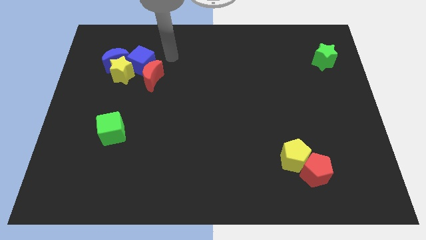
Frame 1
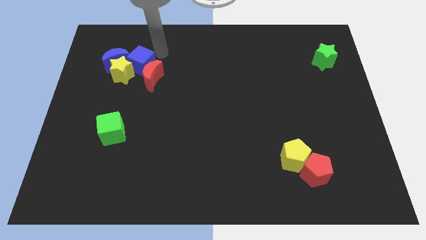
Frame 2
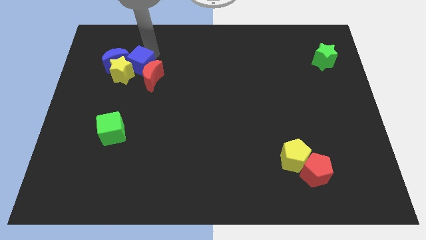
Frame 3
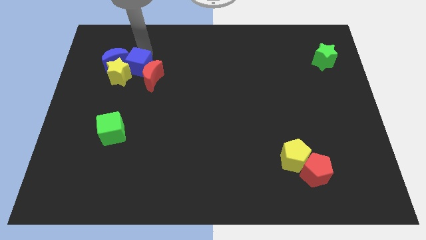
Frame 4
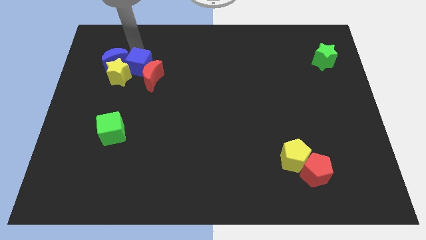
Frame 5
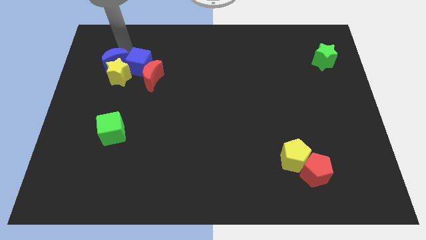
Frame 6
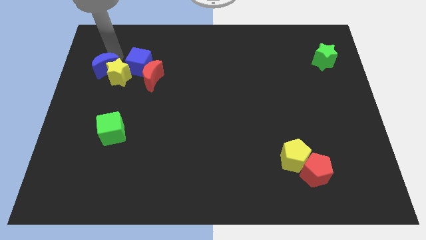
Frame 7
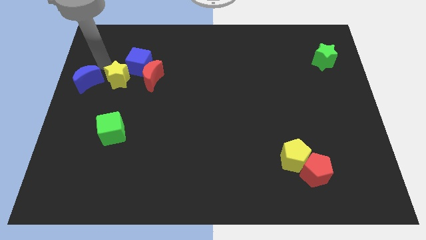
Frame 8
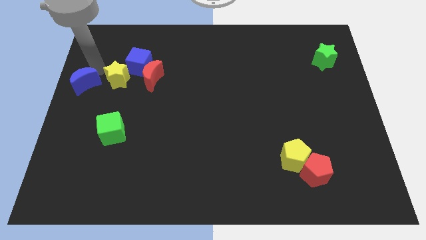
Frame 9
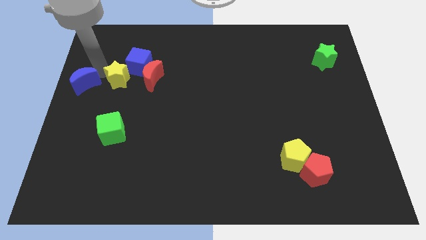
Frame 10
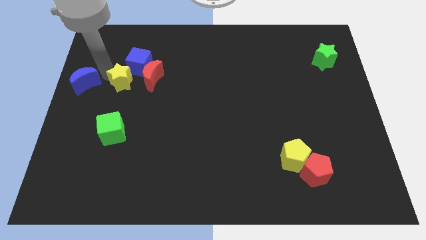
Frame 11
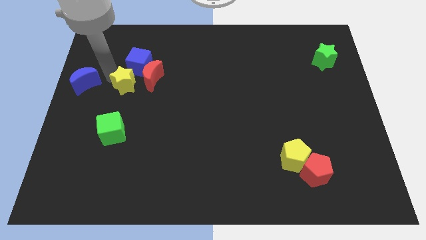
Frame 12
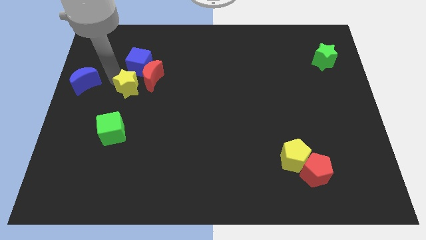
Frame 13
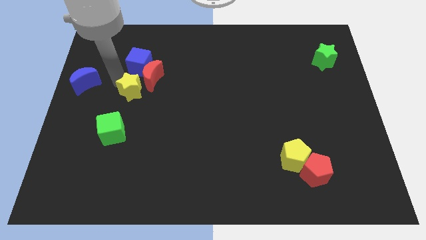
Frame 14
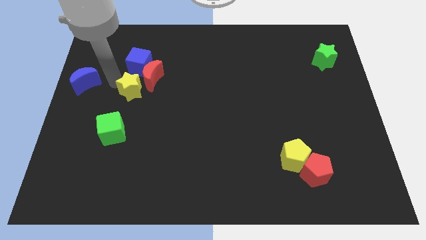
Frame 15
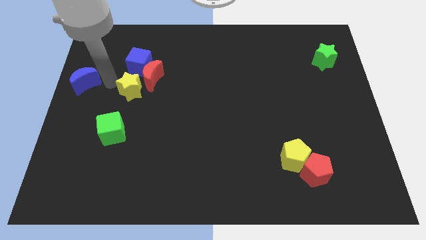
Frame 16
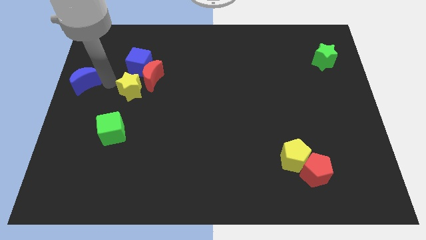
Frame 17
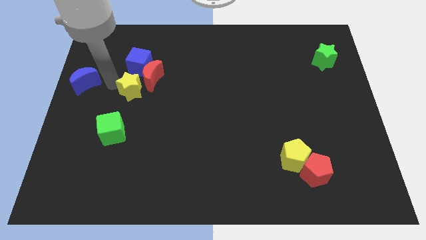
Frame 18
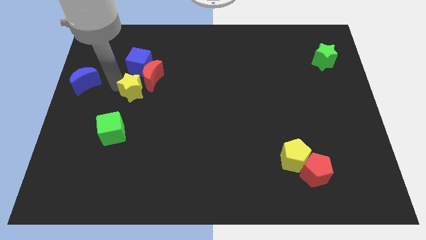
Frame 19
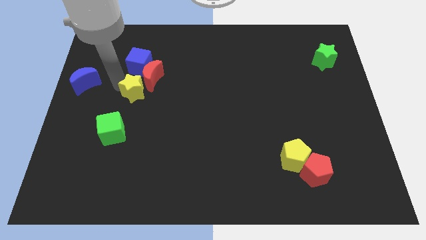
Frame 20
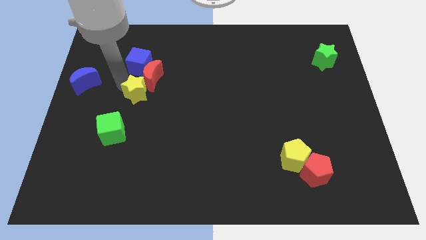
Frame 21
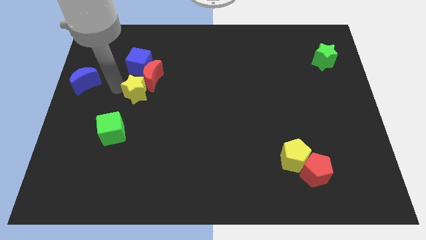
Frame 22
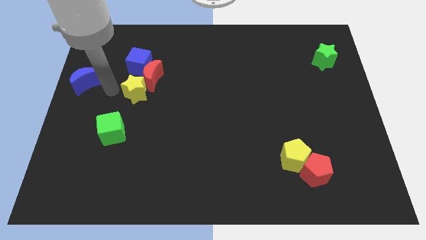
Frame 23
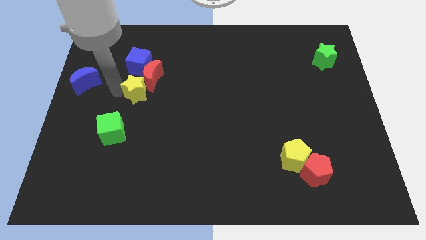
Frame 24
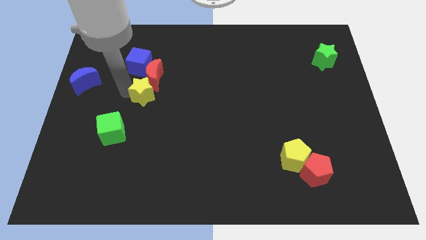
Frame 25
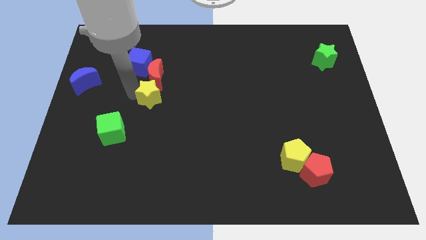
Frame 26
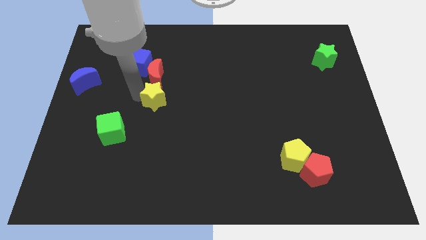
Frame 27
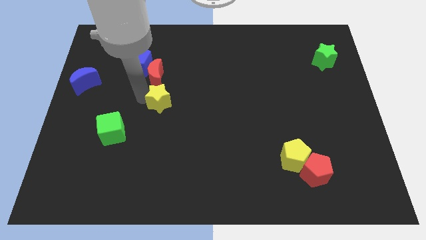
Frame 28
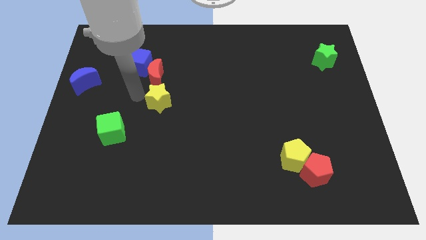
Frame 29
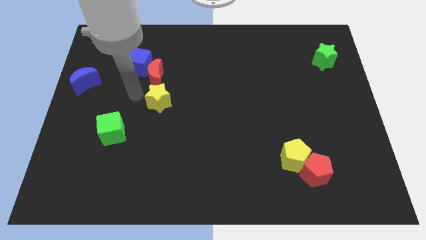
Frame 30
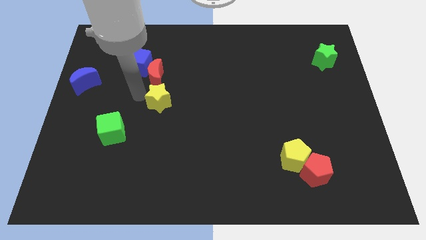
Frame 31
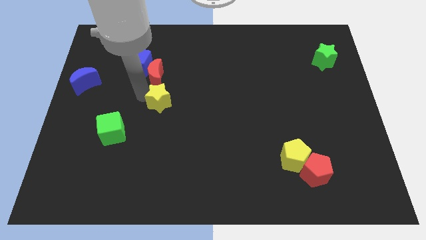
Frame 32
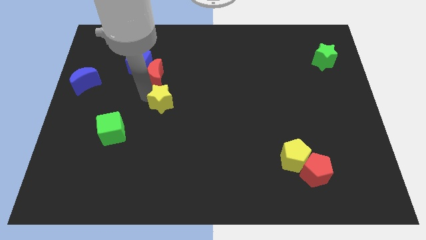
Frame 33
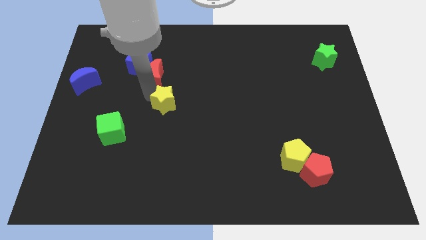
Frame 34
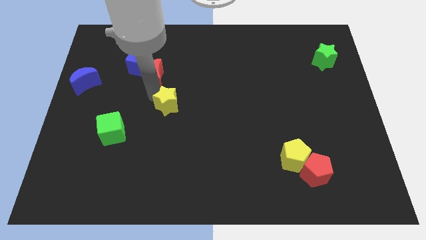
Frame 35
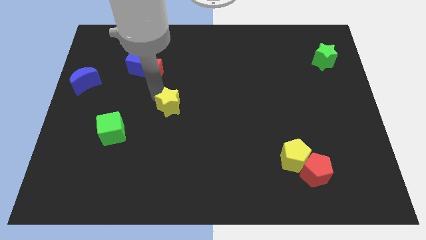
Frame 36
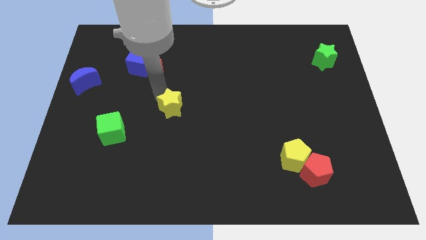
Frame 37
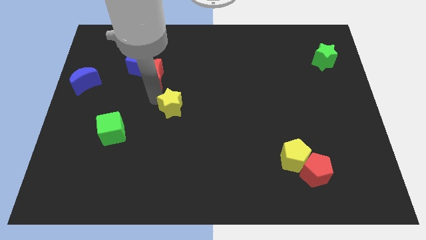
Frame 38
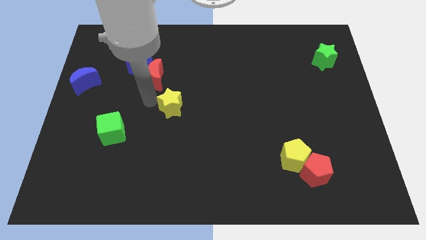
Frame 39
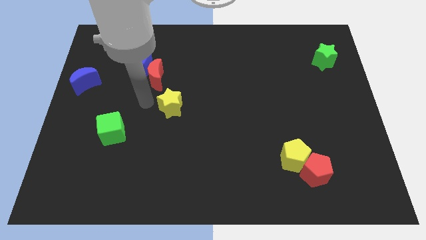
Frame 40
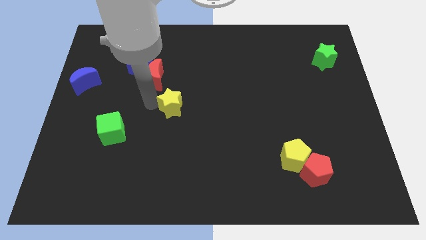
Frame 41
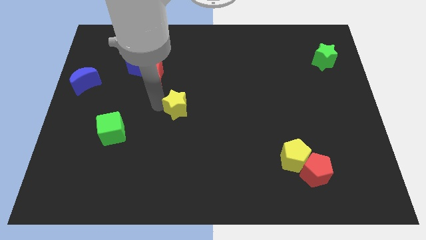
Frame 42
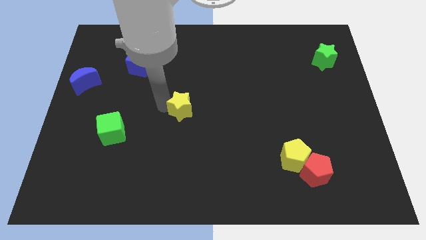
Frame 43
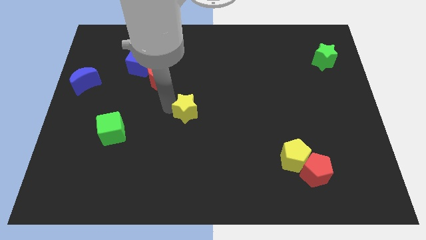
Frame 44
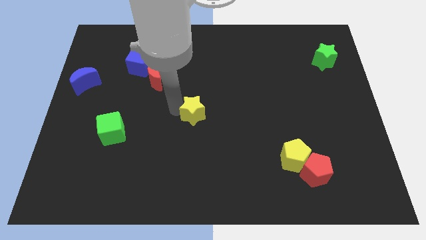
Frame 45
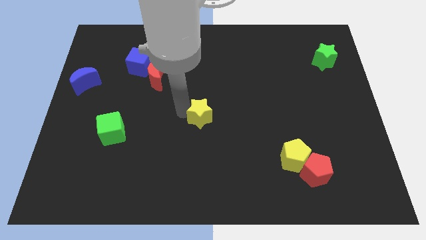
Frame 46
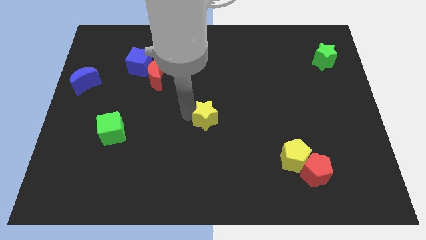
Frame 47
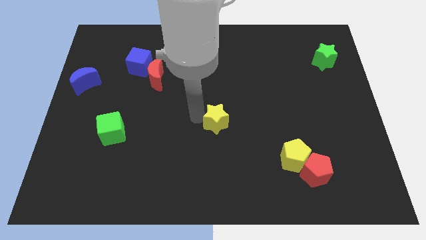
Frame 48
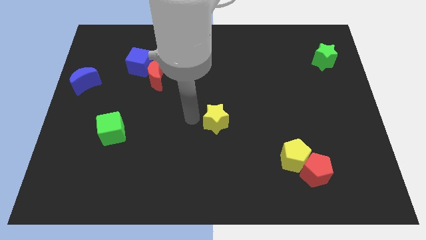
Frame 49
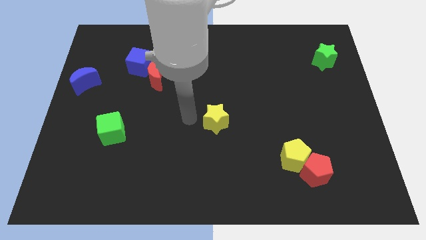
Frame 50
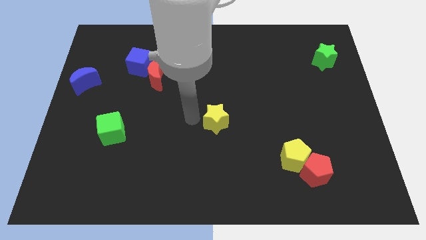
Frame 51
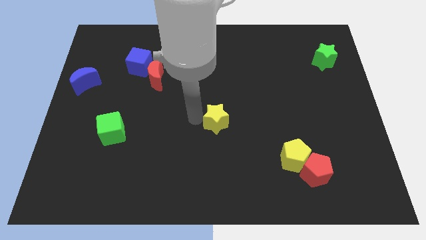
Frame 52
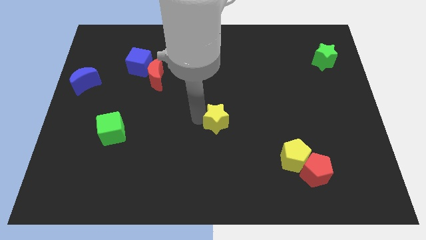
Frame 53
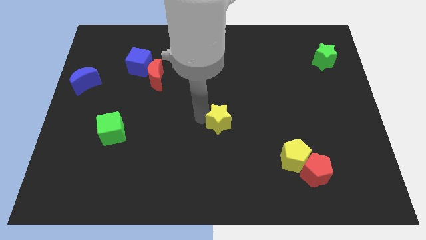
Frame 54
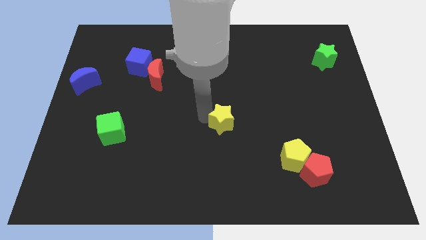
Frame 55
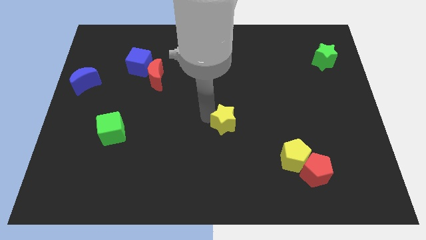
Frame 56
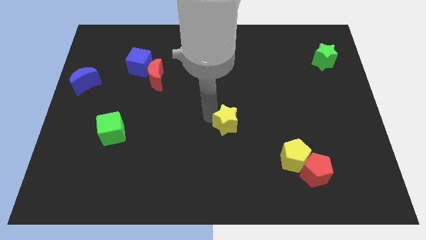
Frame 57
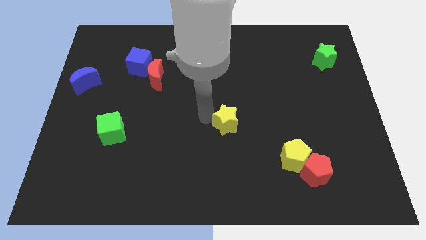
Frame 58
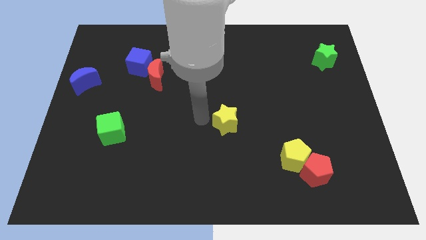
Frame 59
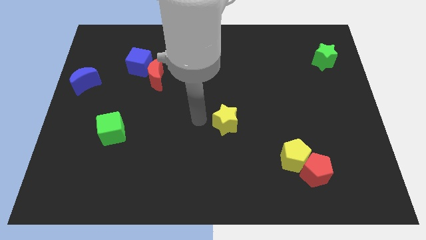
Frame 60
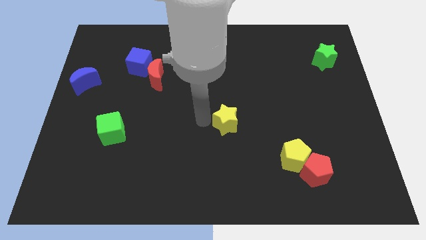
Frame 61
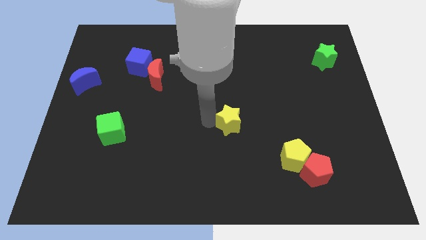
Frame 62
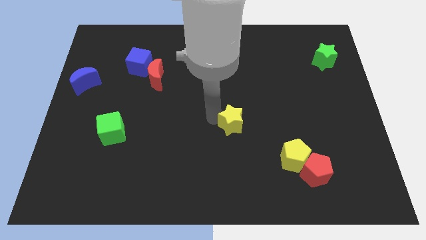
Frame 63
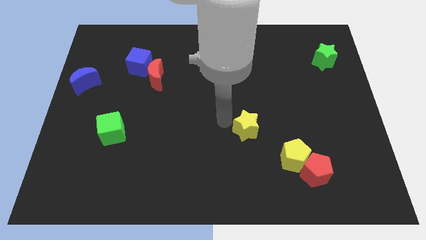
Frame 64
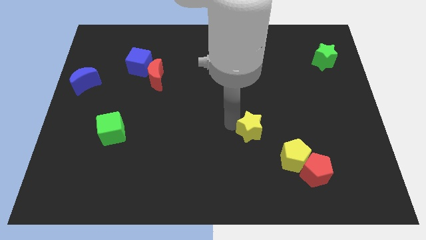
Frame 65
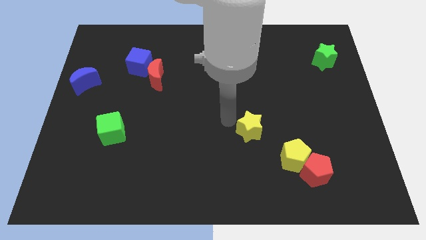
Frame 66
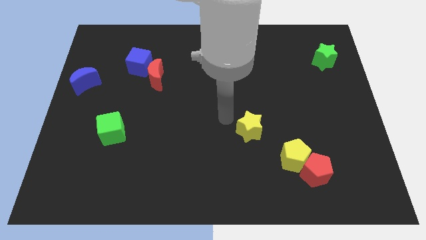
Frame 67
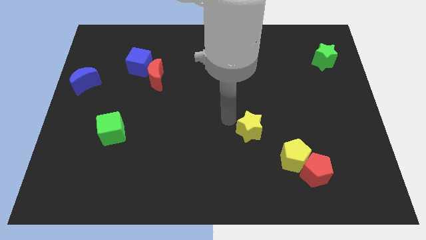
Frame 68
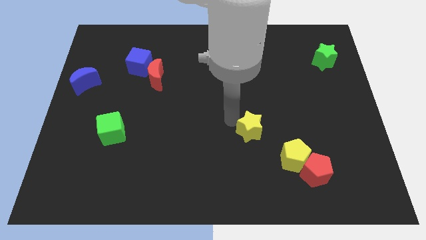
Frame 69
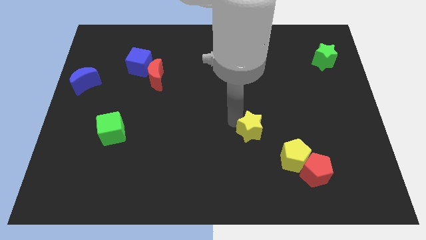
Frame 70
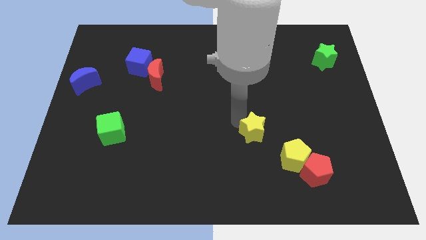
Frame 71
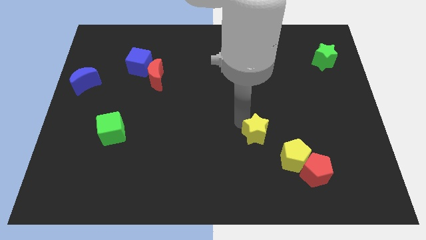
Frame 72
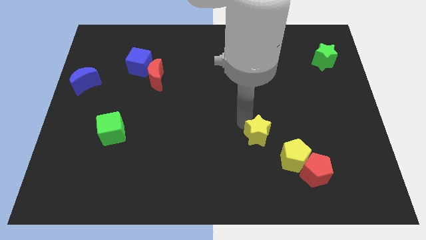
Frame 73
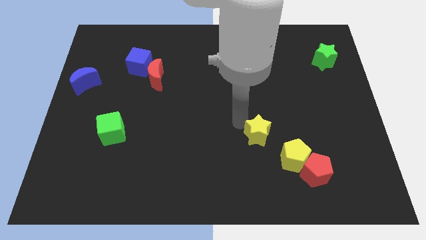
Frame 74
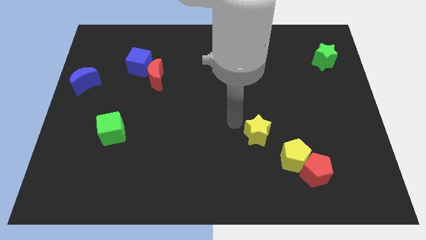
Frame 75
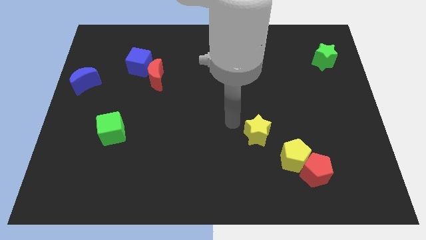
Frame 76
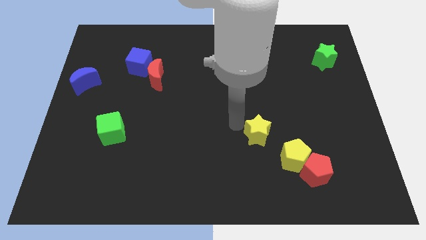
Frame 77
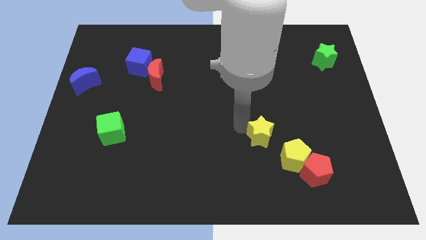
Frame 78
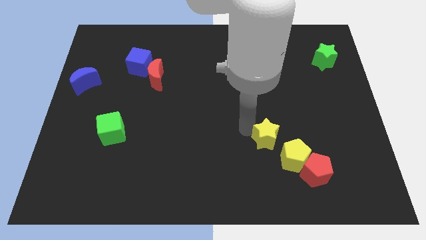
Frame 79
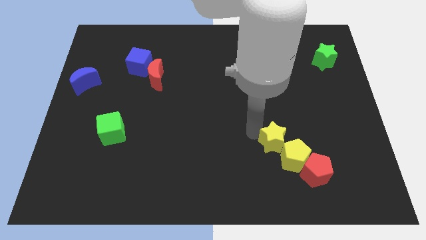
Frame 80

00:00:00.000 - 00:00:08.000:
push the yellow star to the yellow pentagon

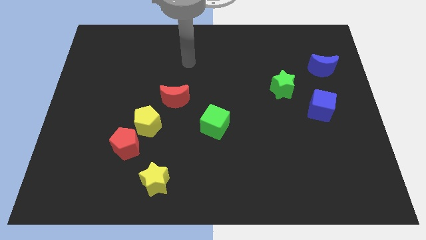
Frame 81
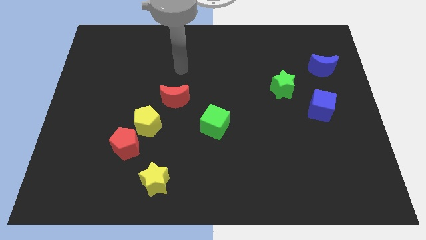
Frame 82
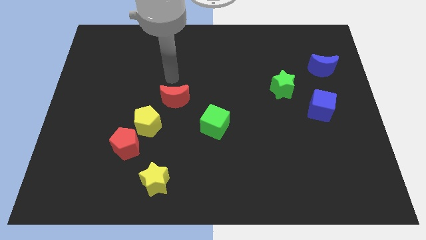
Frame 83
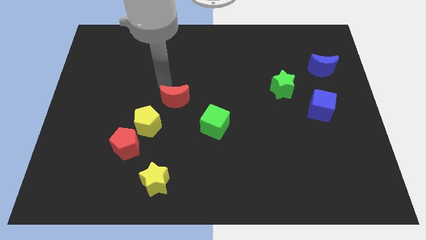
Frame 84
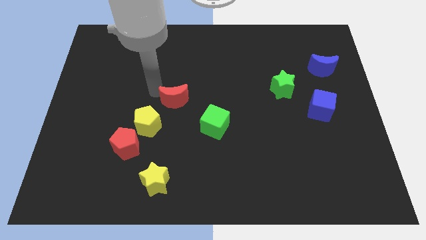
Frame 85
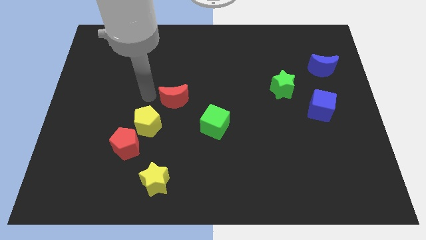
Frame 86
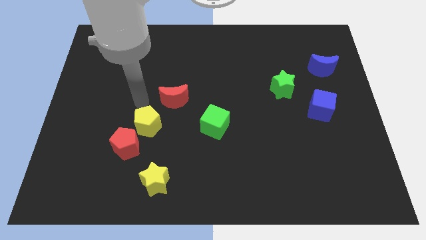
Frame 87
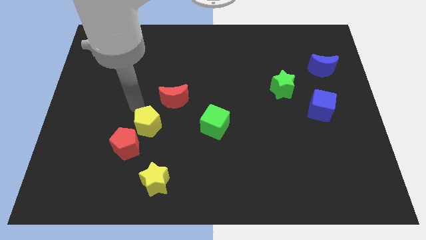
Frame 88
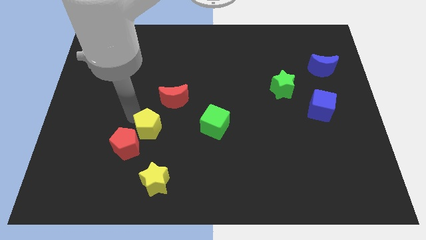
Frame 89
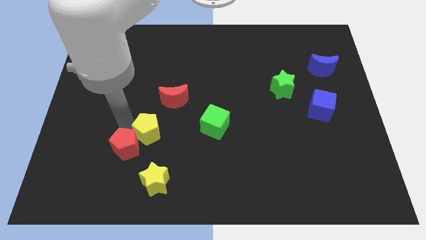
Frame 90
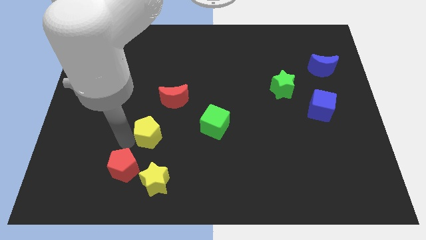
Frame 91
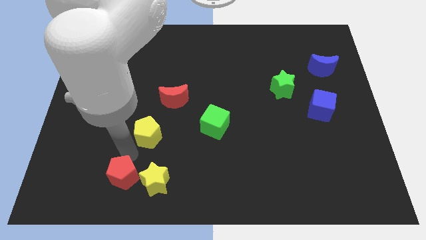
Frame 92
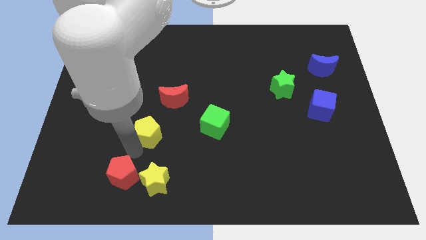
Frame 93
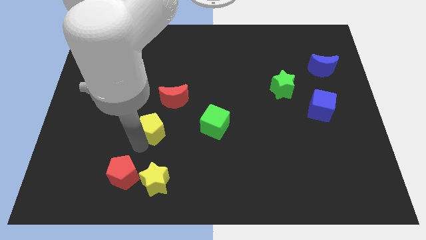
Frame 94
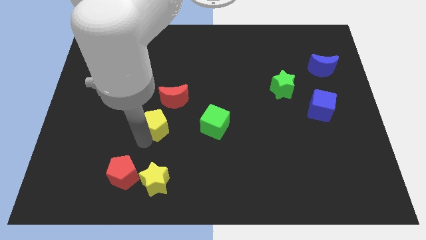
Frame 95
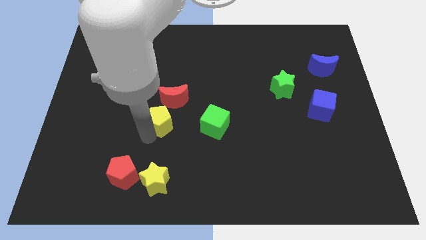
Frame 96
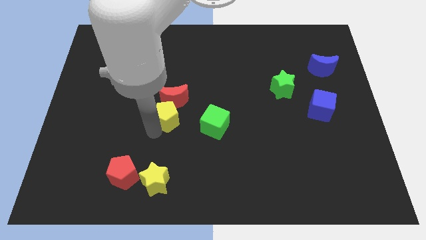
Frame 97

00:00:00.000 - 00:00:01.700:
put the yellow pentagon towards the red moon
